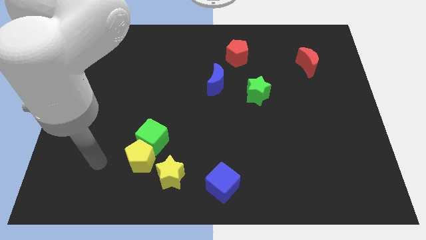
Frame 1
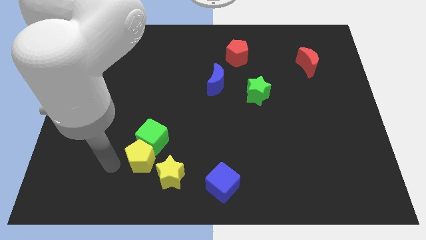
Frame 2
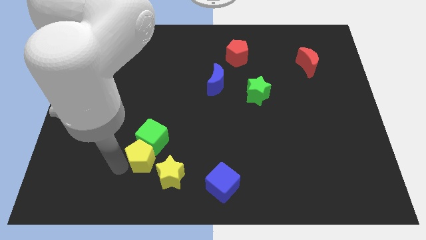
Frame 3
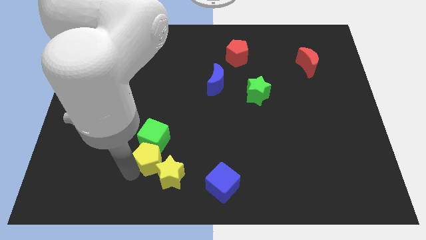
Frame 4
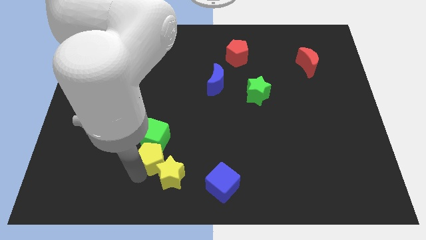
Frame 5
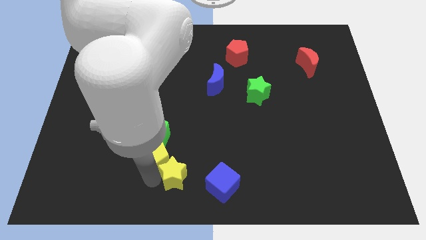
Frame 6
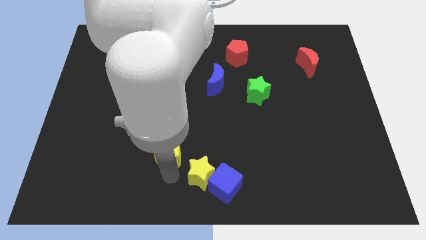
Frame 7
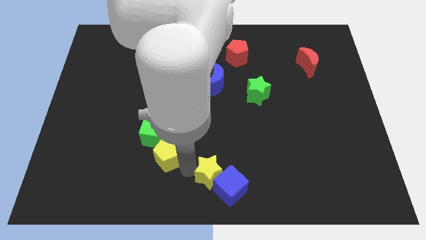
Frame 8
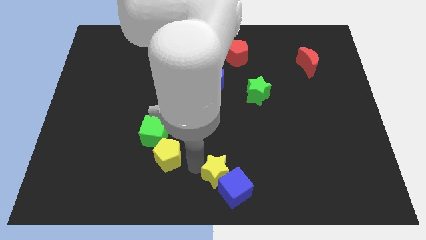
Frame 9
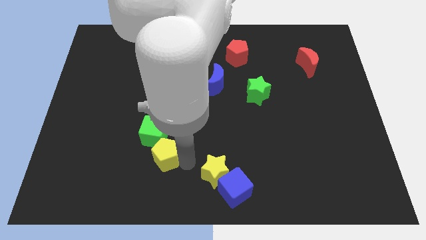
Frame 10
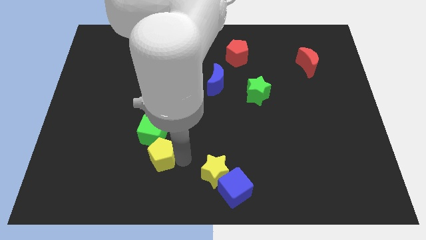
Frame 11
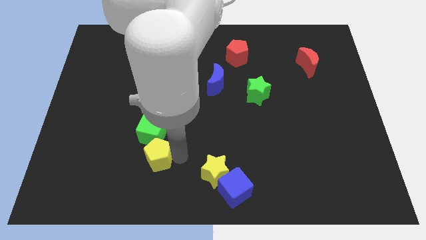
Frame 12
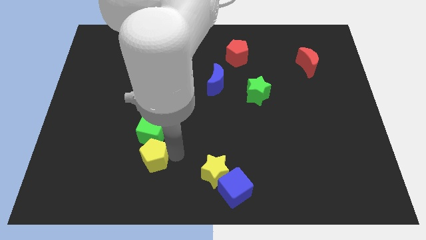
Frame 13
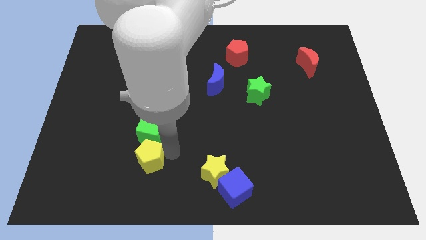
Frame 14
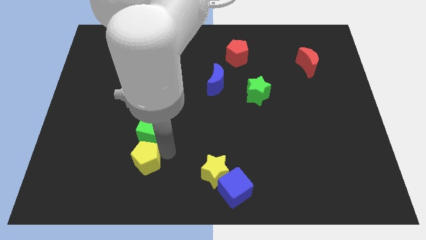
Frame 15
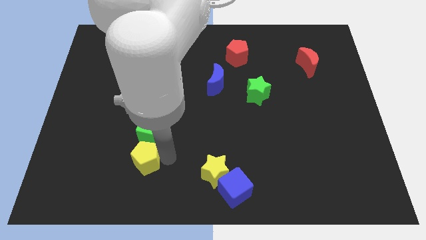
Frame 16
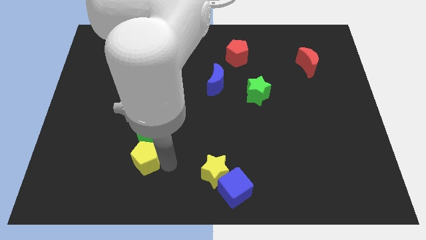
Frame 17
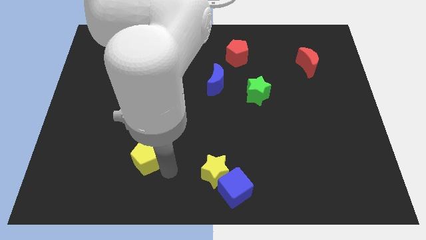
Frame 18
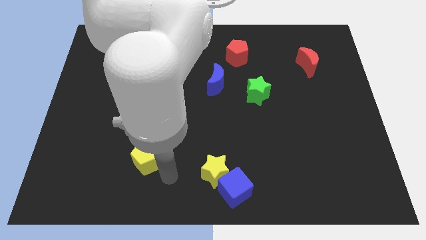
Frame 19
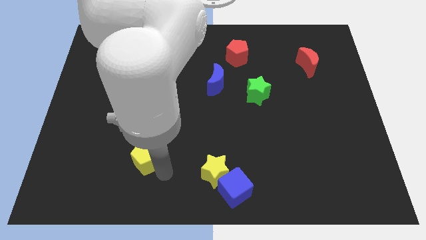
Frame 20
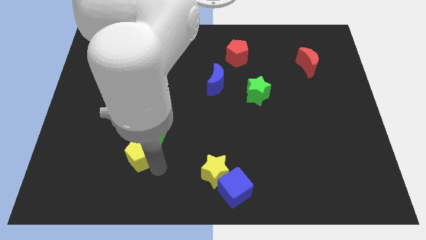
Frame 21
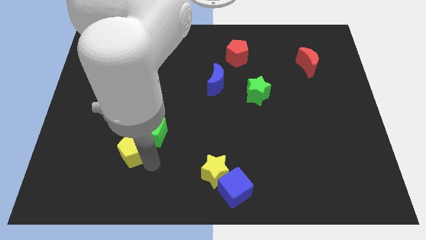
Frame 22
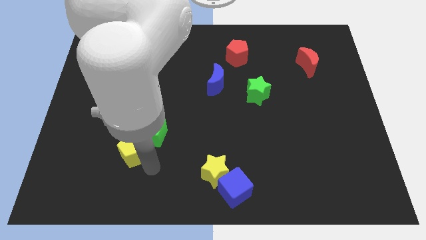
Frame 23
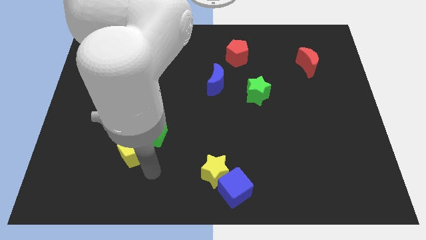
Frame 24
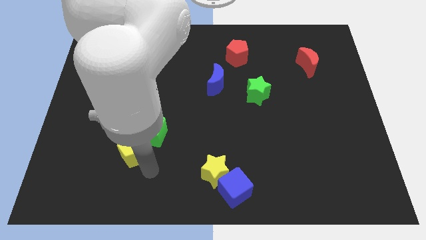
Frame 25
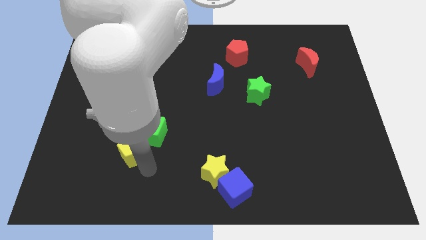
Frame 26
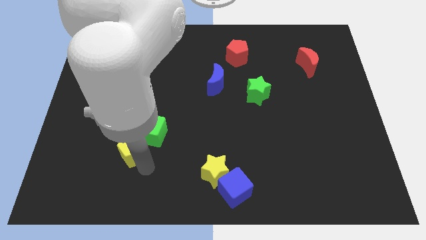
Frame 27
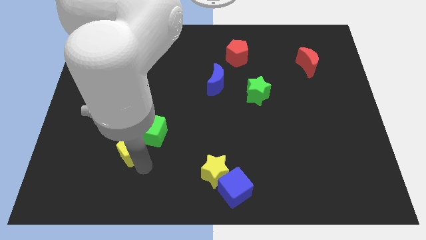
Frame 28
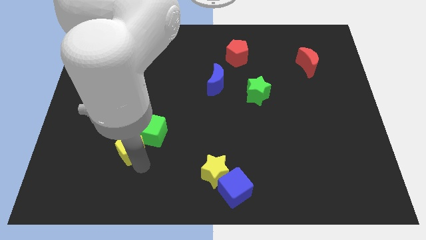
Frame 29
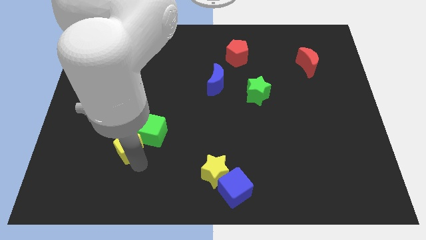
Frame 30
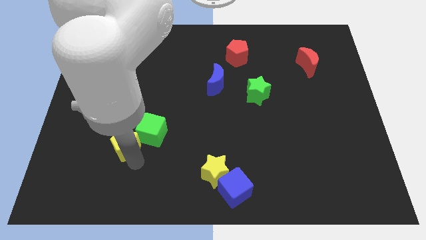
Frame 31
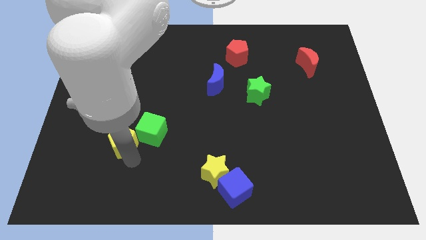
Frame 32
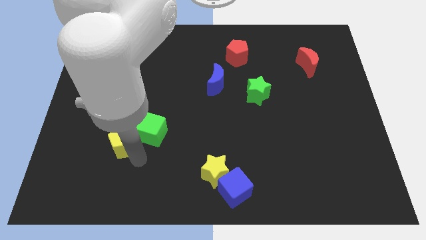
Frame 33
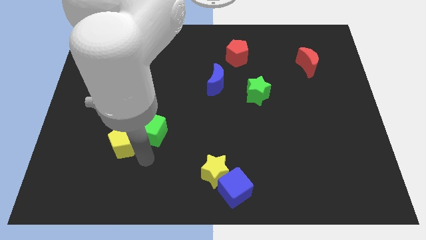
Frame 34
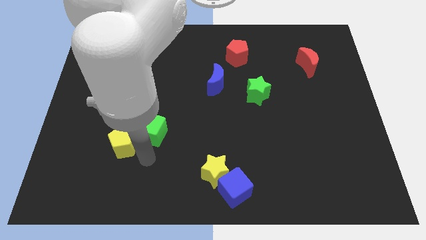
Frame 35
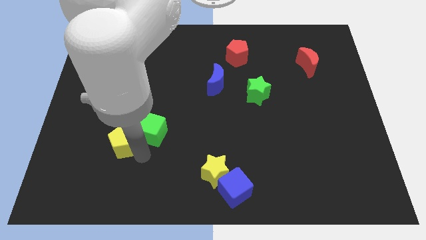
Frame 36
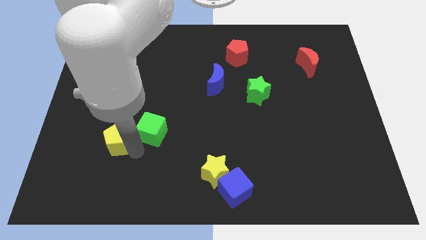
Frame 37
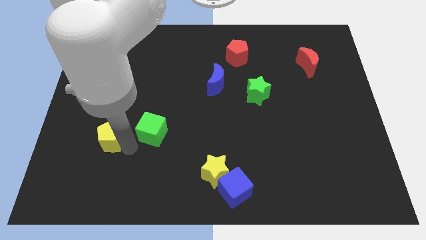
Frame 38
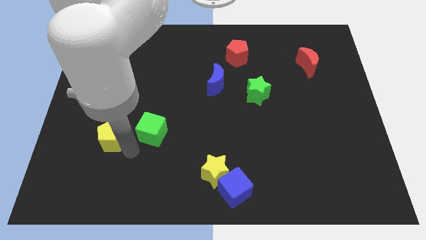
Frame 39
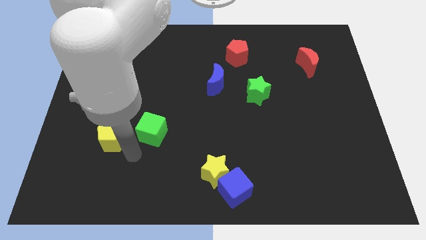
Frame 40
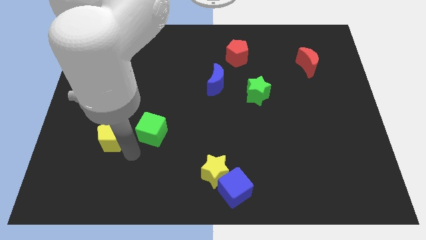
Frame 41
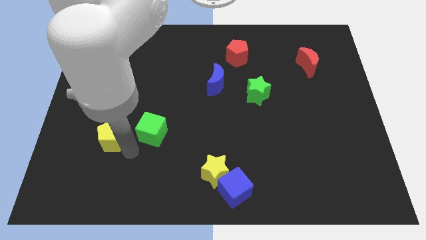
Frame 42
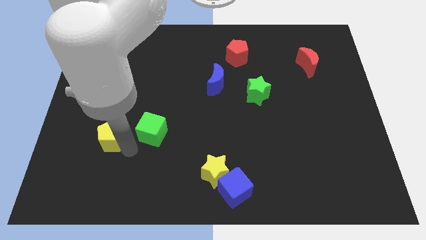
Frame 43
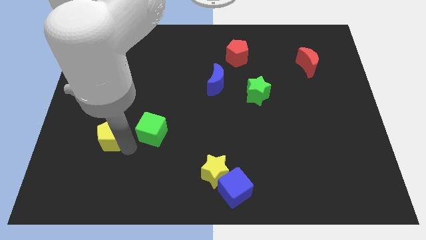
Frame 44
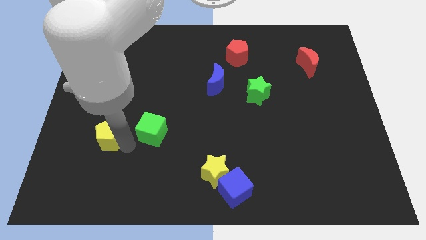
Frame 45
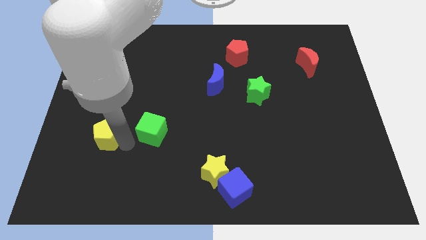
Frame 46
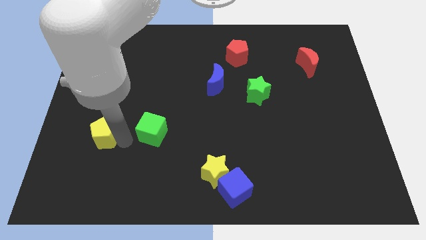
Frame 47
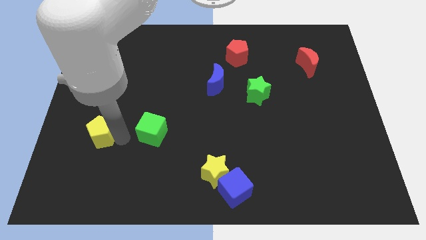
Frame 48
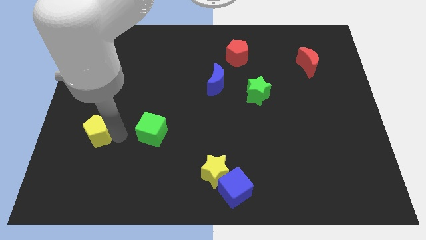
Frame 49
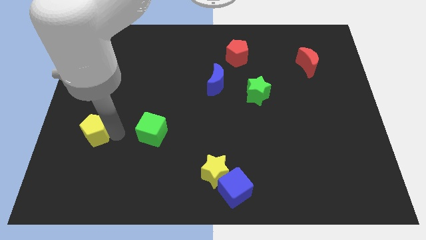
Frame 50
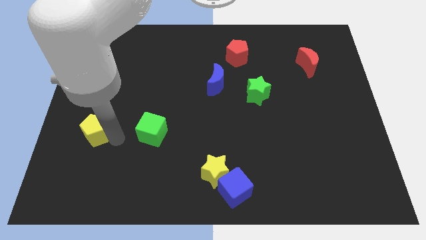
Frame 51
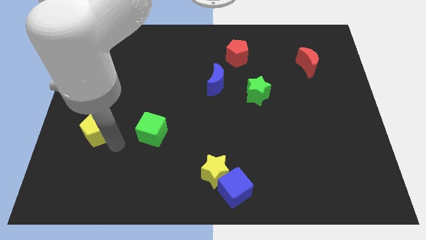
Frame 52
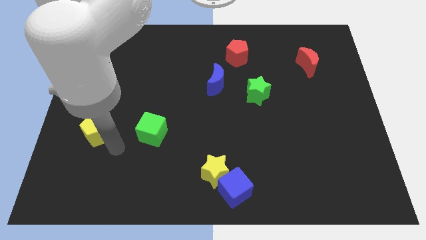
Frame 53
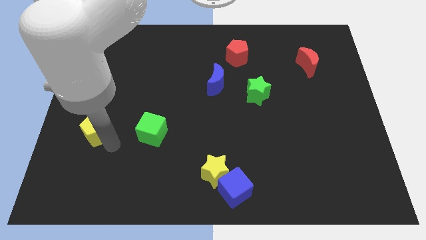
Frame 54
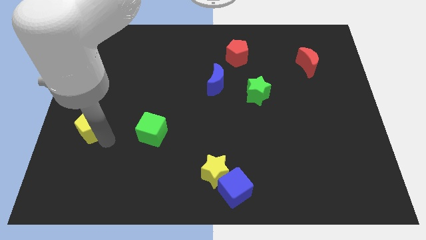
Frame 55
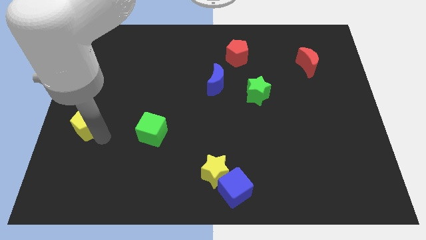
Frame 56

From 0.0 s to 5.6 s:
push the yellow pentagon to the left side

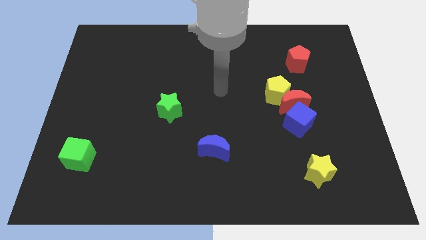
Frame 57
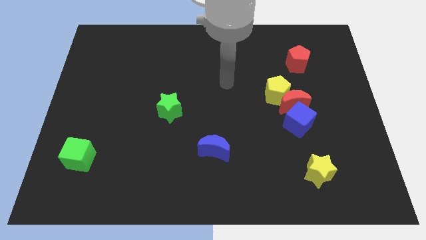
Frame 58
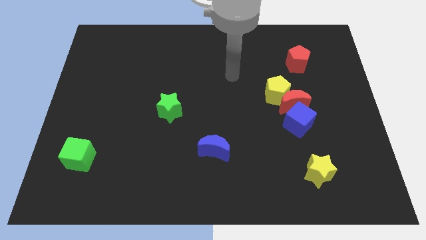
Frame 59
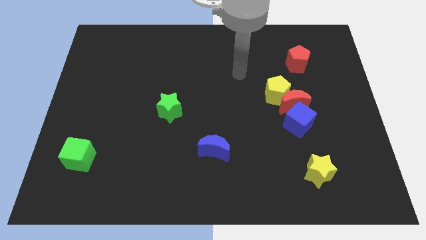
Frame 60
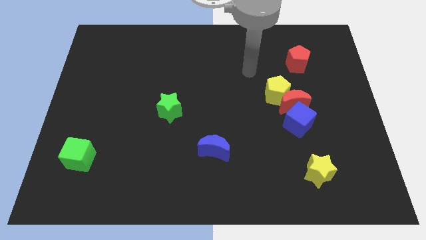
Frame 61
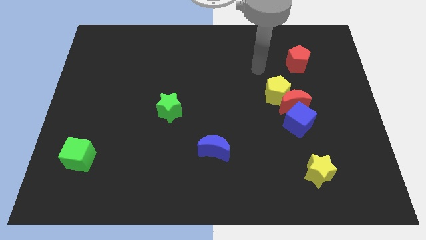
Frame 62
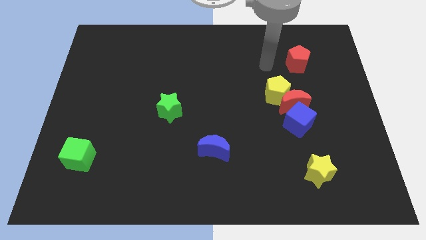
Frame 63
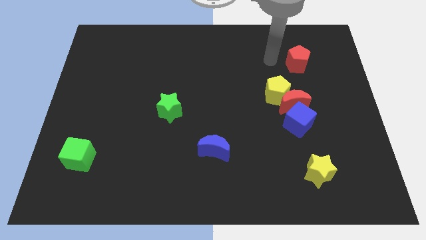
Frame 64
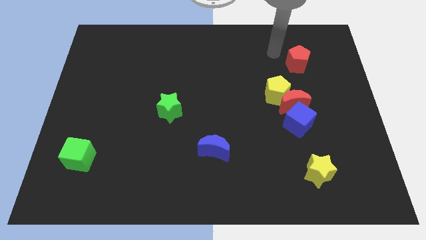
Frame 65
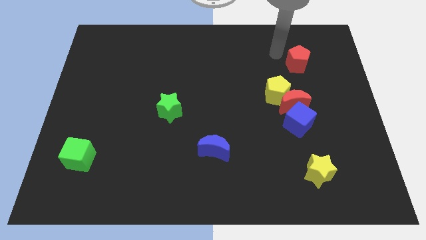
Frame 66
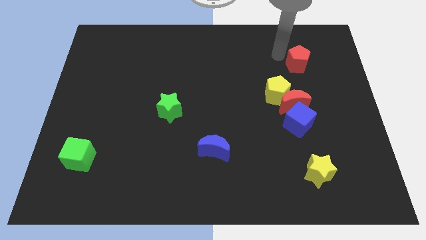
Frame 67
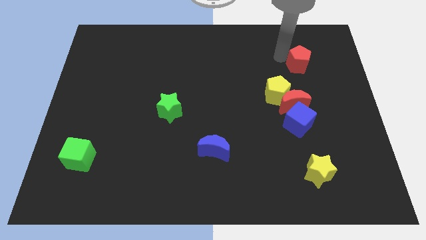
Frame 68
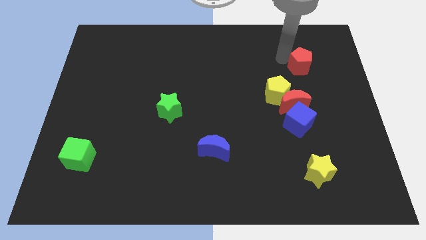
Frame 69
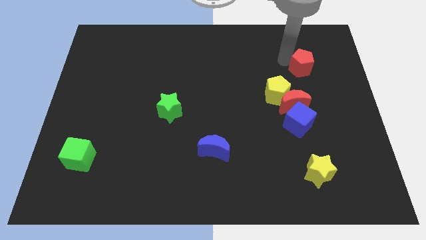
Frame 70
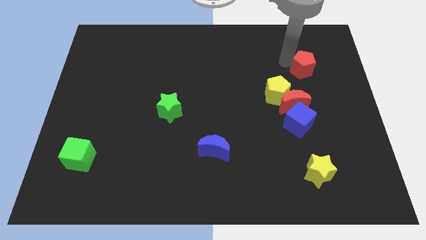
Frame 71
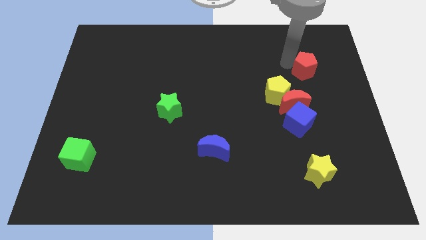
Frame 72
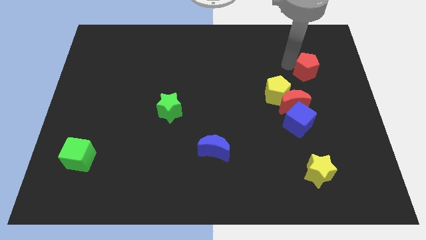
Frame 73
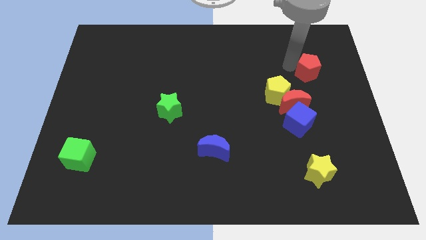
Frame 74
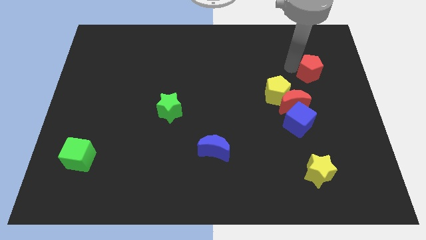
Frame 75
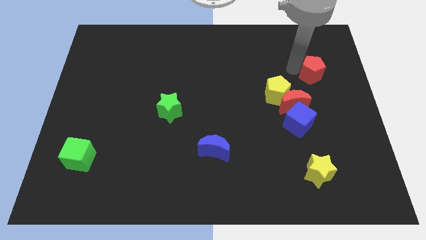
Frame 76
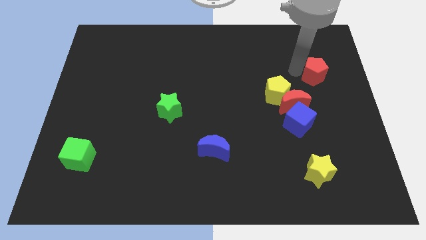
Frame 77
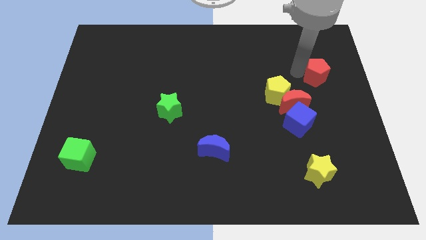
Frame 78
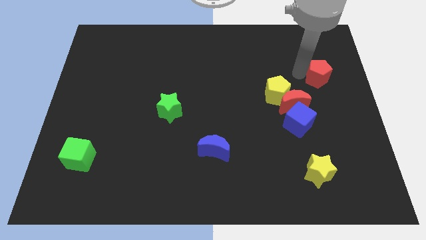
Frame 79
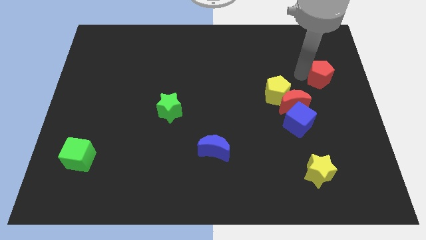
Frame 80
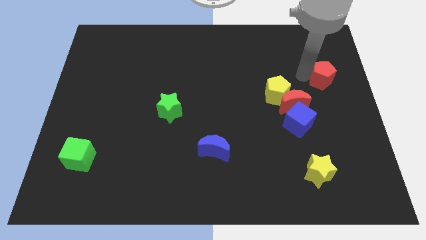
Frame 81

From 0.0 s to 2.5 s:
push the red pentagon to the right side
